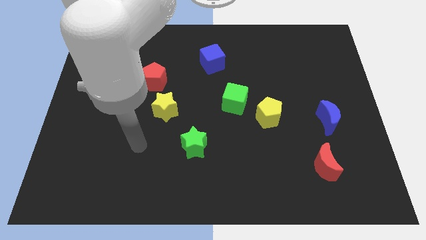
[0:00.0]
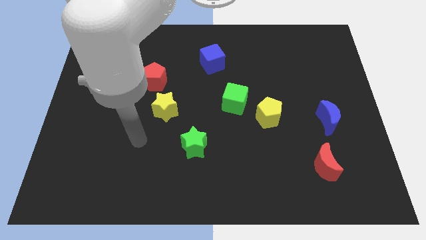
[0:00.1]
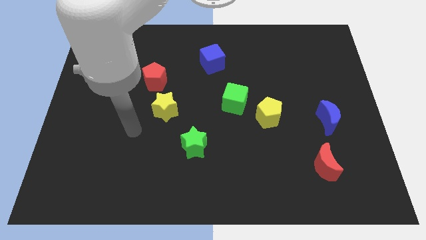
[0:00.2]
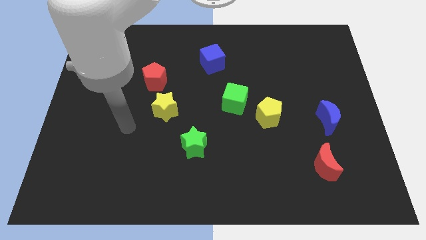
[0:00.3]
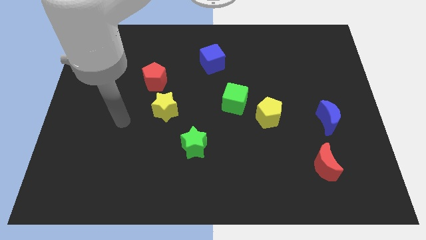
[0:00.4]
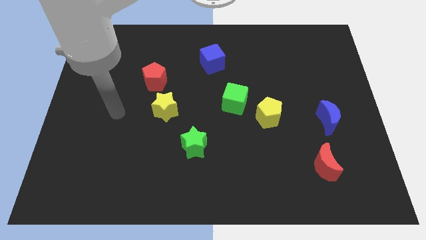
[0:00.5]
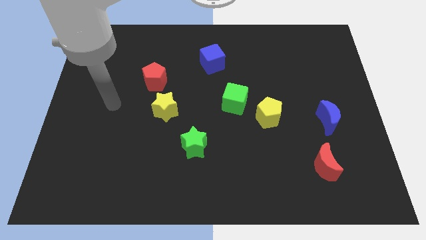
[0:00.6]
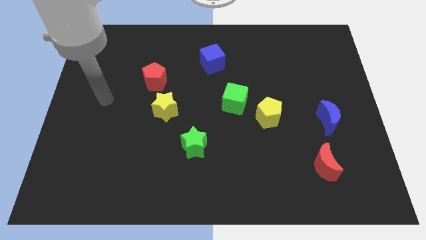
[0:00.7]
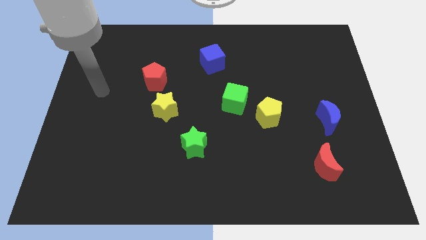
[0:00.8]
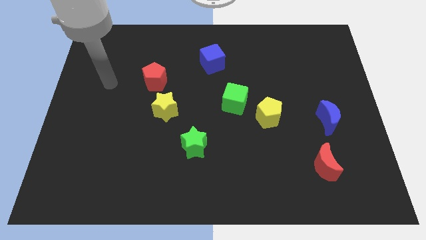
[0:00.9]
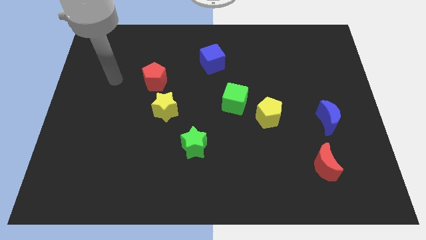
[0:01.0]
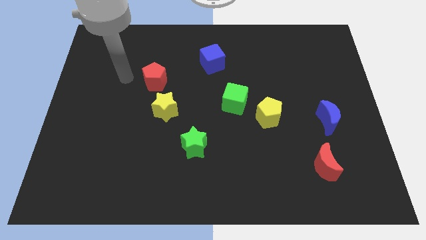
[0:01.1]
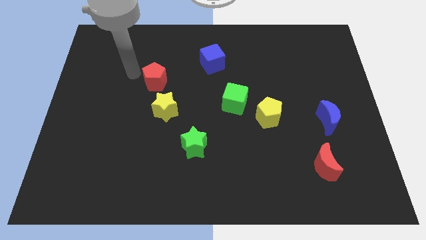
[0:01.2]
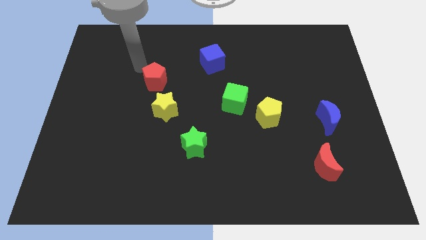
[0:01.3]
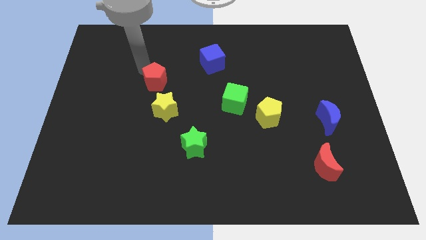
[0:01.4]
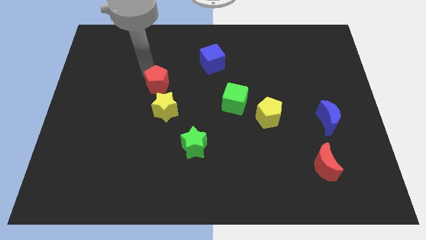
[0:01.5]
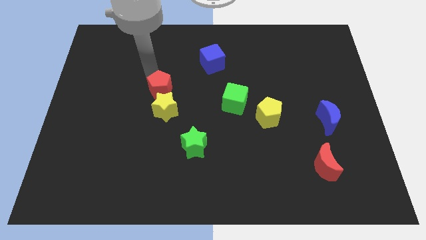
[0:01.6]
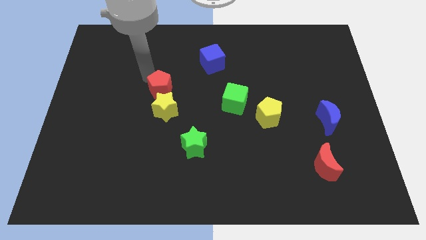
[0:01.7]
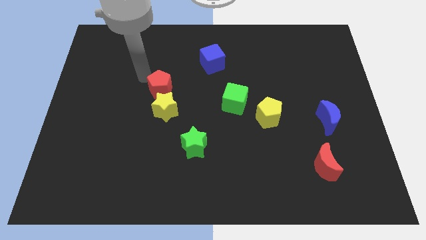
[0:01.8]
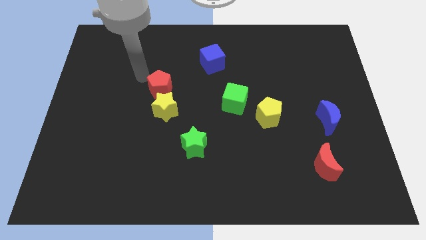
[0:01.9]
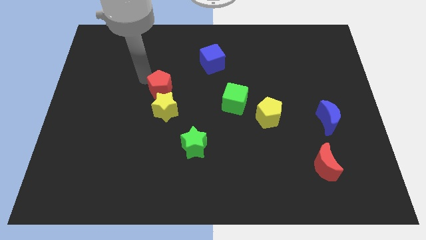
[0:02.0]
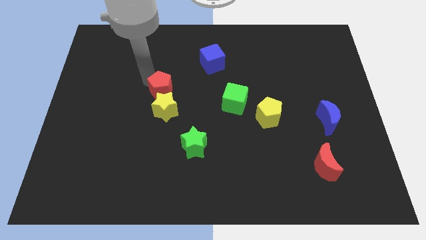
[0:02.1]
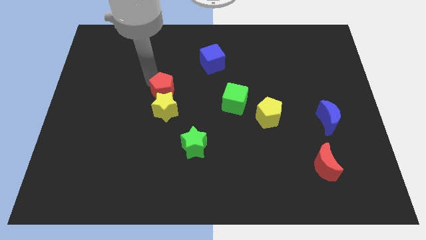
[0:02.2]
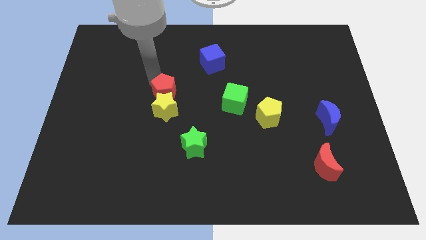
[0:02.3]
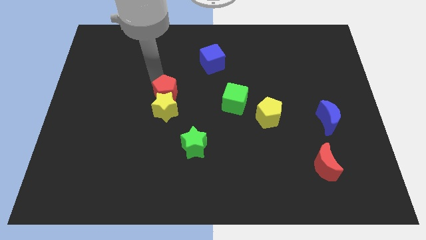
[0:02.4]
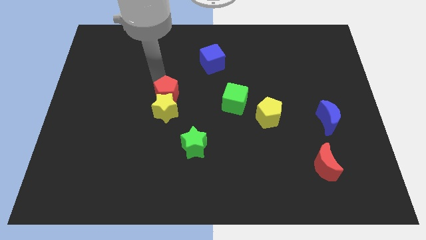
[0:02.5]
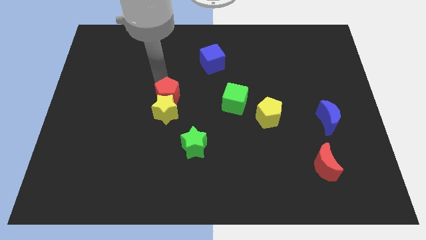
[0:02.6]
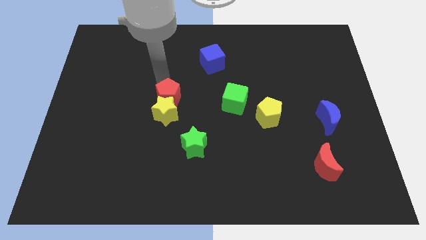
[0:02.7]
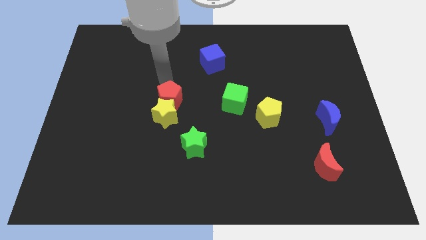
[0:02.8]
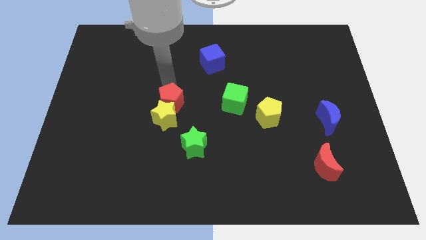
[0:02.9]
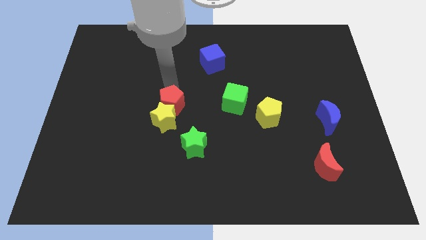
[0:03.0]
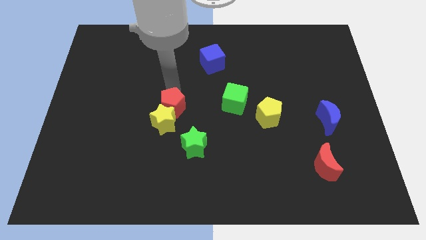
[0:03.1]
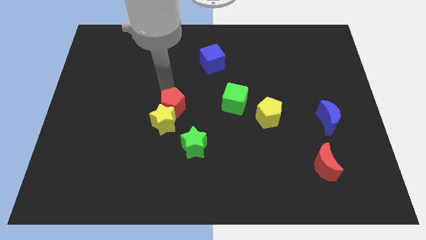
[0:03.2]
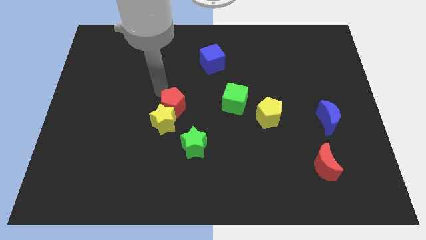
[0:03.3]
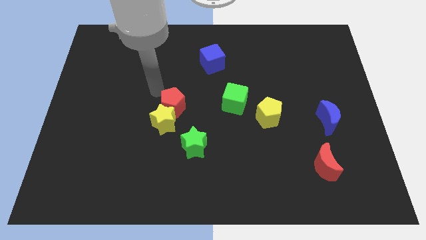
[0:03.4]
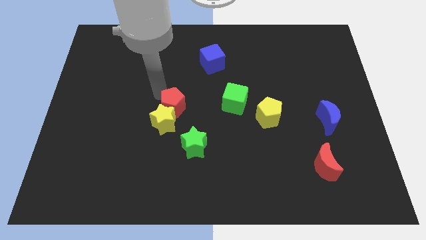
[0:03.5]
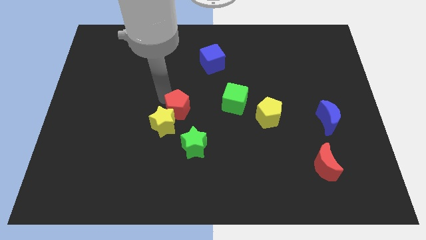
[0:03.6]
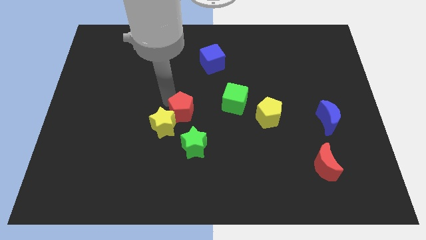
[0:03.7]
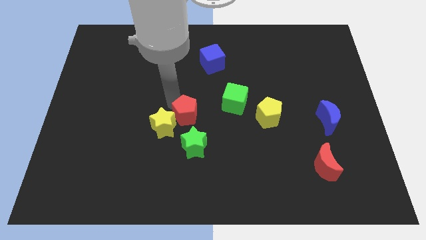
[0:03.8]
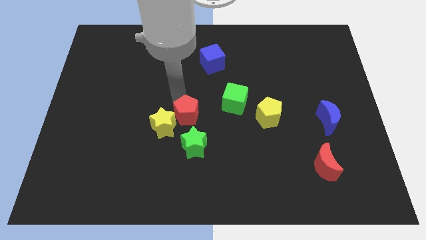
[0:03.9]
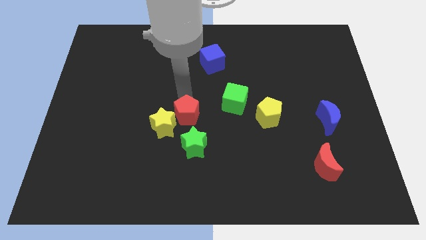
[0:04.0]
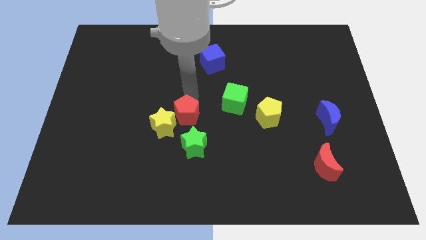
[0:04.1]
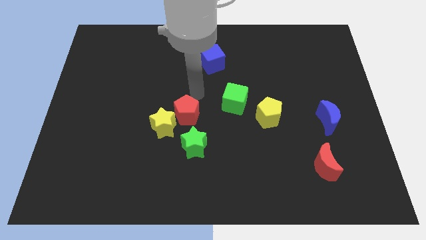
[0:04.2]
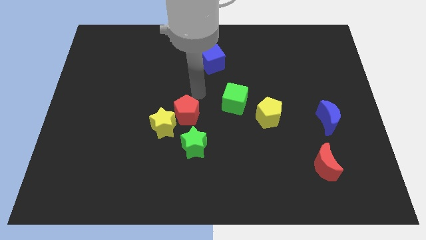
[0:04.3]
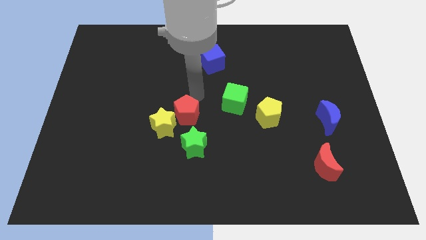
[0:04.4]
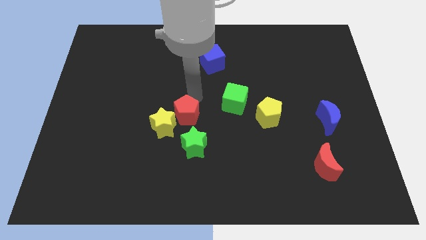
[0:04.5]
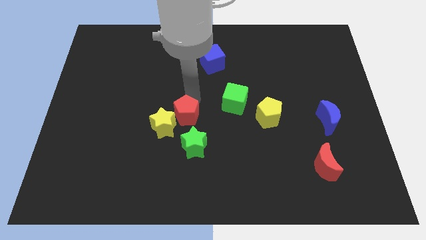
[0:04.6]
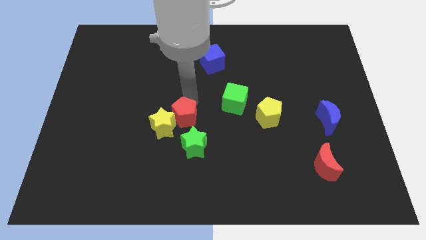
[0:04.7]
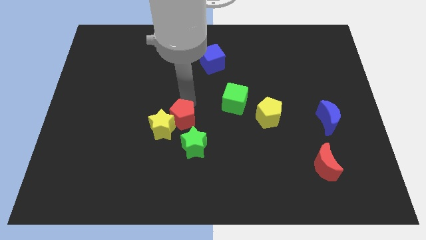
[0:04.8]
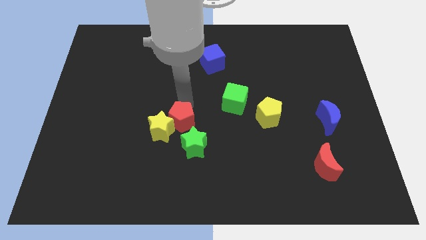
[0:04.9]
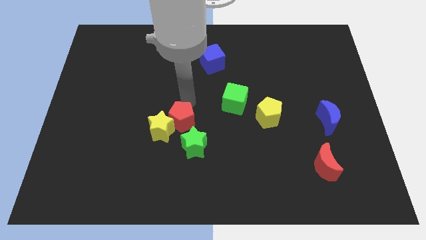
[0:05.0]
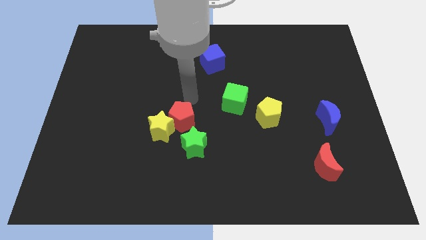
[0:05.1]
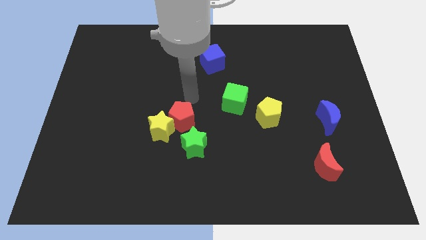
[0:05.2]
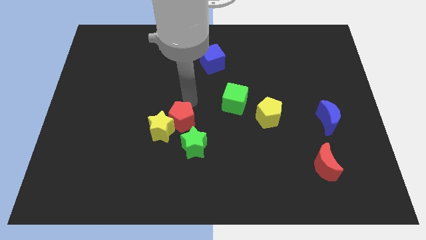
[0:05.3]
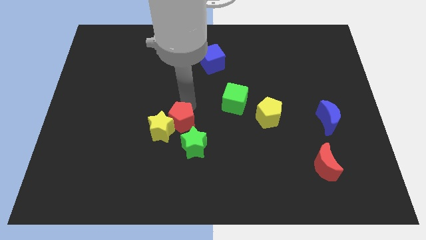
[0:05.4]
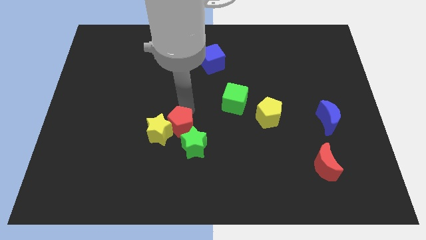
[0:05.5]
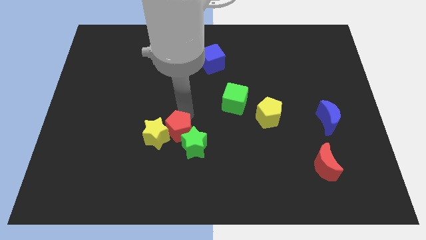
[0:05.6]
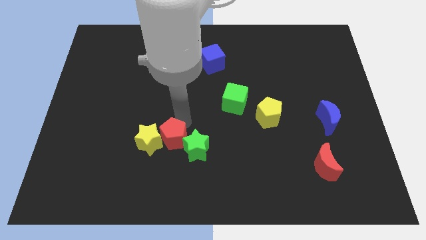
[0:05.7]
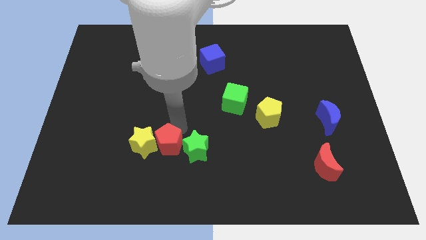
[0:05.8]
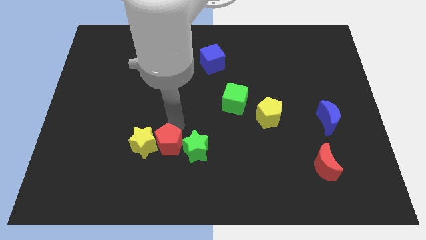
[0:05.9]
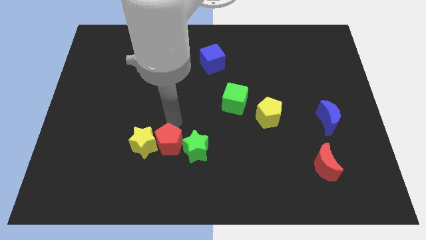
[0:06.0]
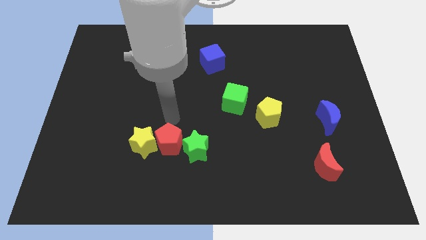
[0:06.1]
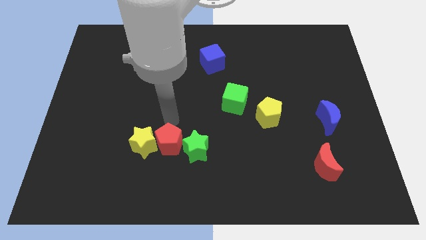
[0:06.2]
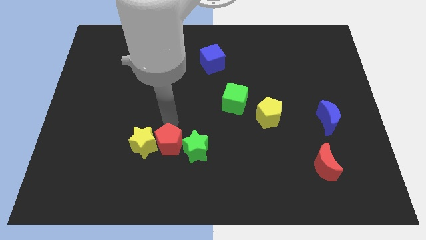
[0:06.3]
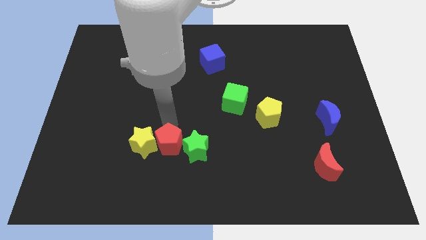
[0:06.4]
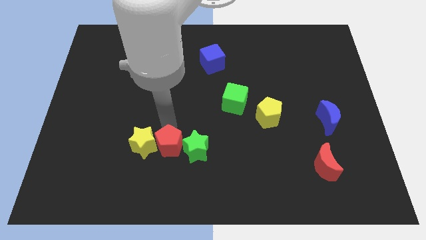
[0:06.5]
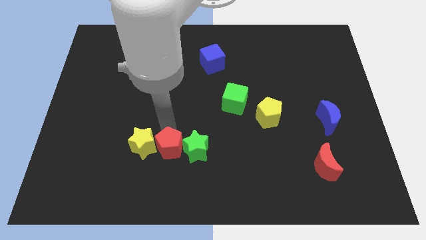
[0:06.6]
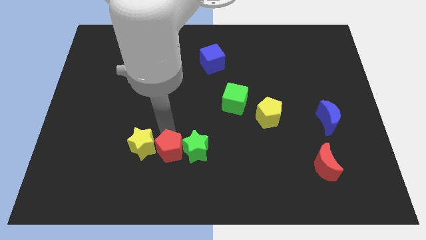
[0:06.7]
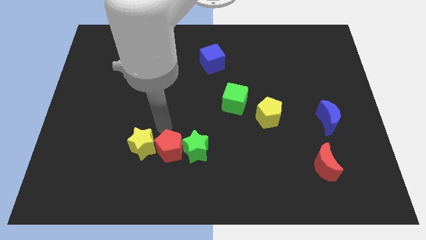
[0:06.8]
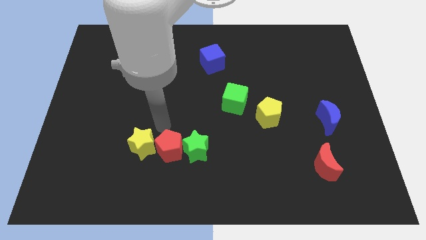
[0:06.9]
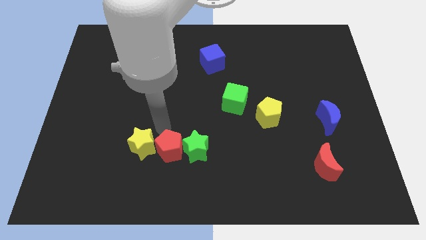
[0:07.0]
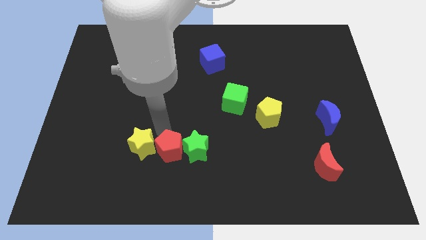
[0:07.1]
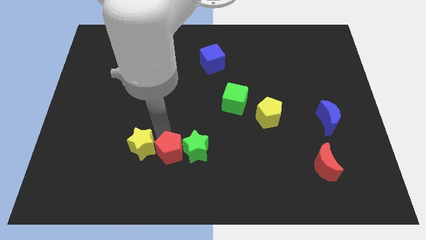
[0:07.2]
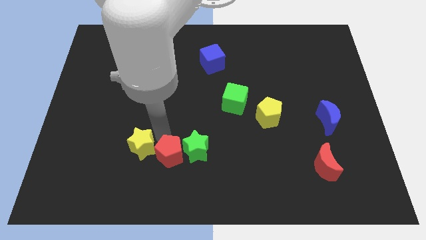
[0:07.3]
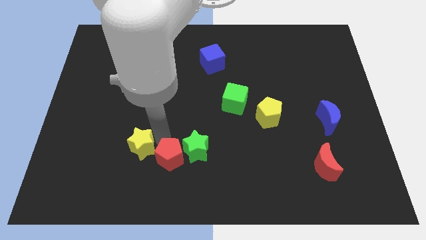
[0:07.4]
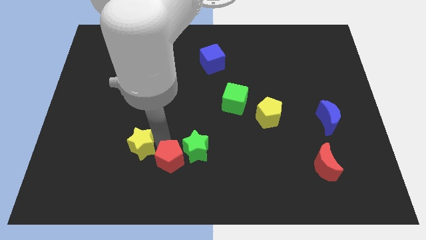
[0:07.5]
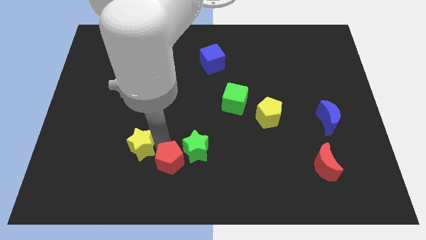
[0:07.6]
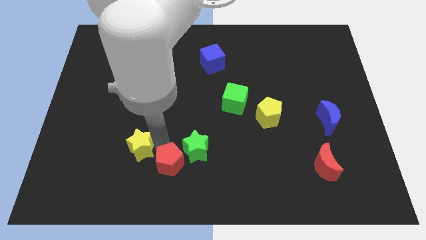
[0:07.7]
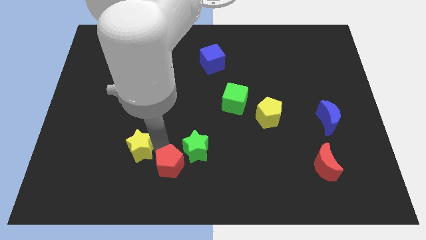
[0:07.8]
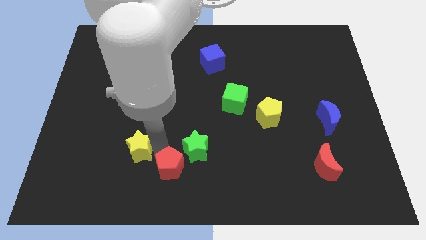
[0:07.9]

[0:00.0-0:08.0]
push the red pentagon to the bottom
